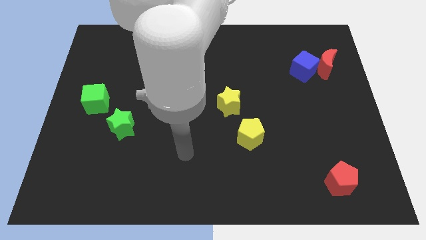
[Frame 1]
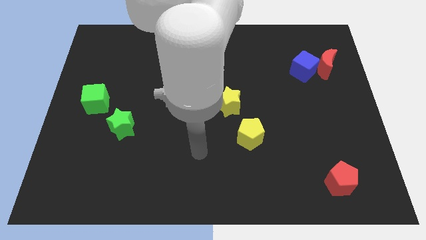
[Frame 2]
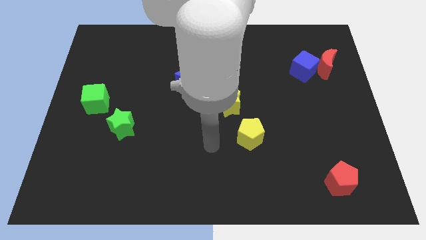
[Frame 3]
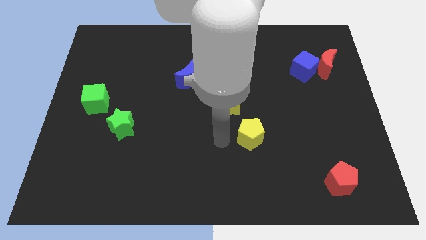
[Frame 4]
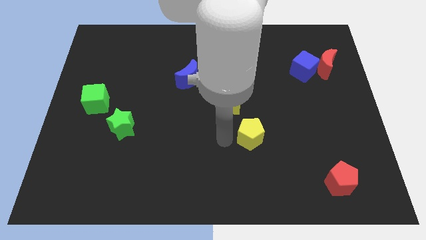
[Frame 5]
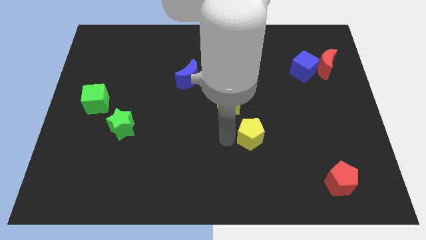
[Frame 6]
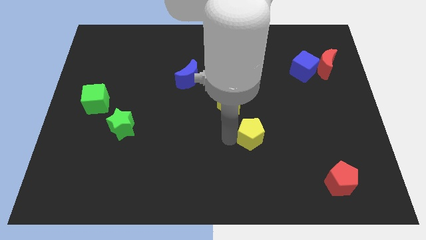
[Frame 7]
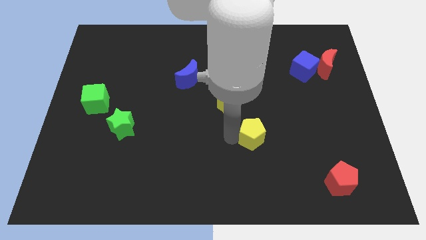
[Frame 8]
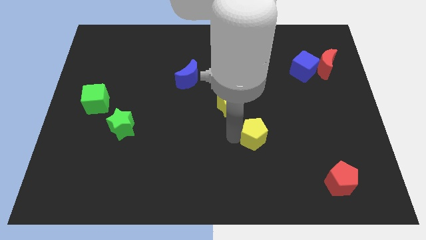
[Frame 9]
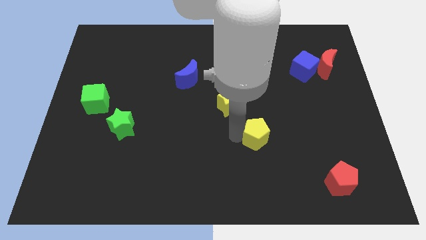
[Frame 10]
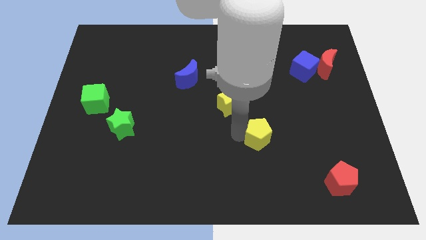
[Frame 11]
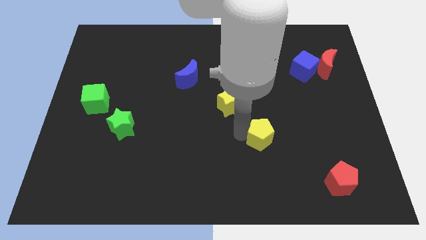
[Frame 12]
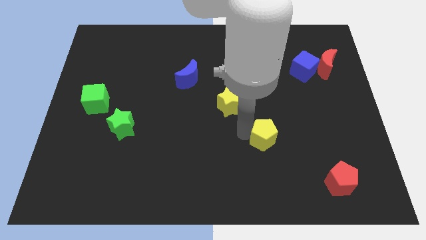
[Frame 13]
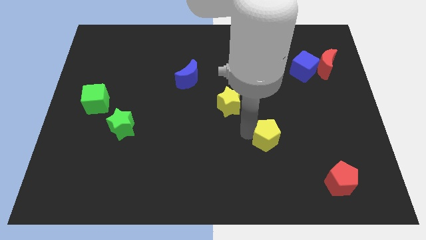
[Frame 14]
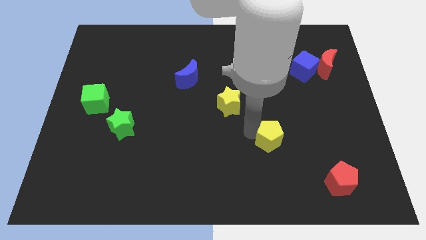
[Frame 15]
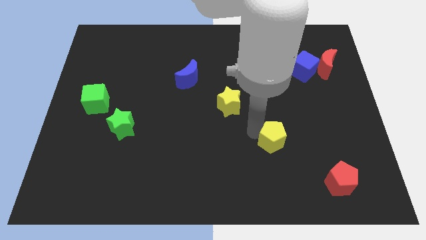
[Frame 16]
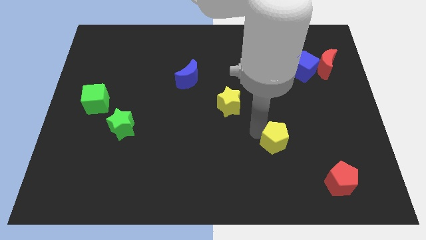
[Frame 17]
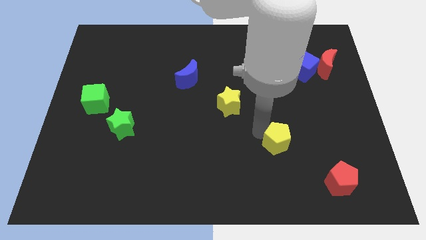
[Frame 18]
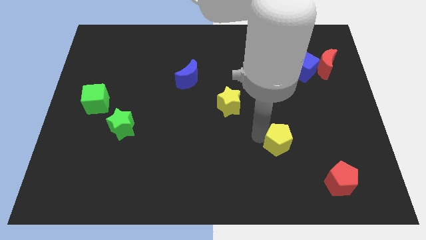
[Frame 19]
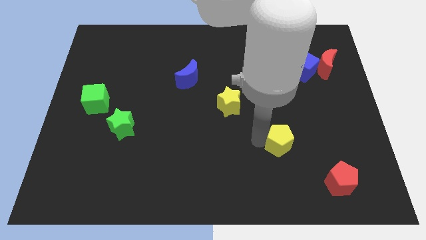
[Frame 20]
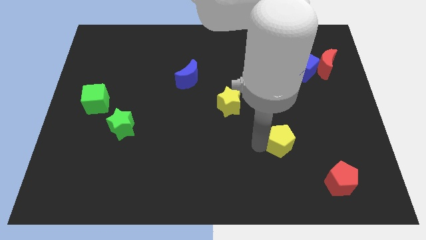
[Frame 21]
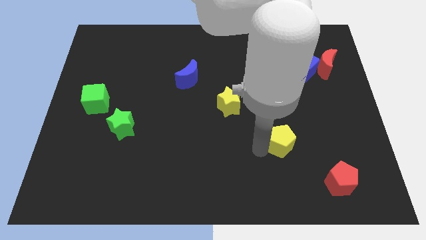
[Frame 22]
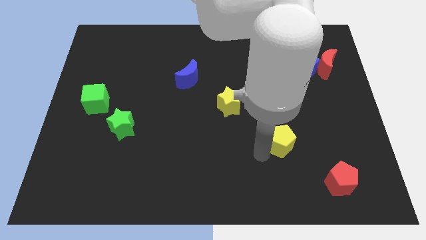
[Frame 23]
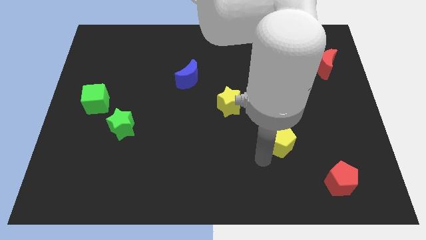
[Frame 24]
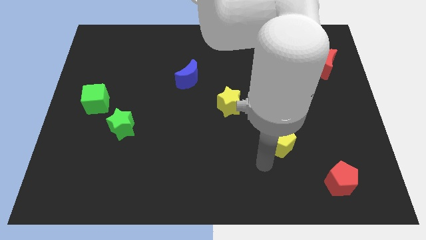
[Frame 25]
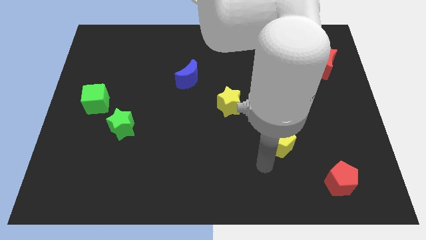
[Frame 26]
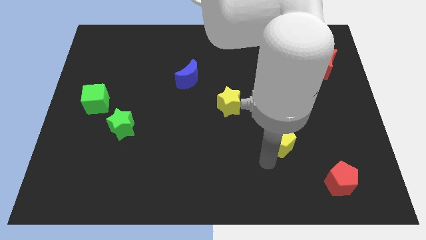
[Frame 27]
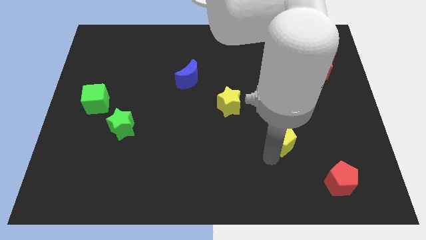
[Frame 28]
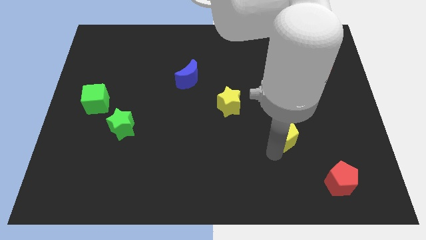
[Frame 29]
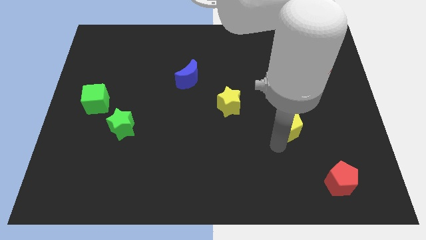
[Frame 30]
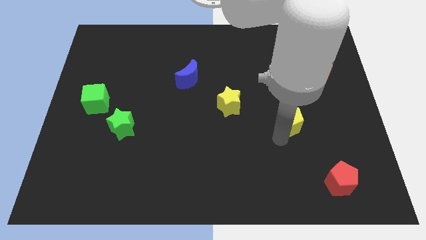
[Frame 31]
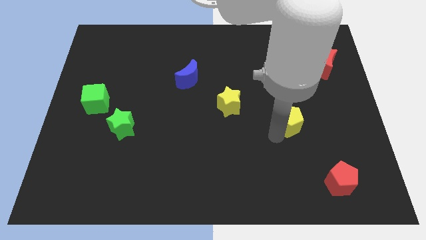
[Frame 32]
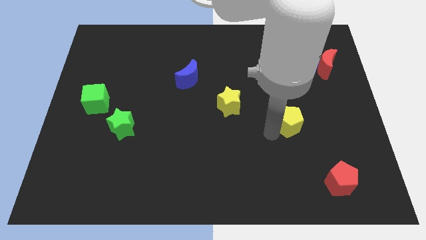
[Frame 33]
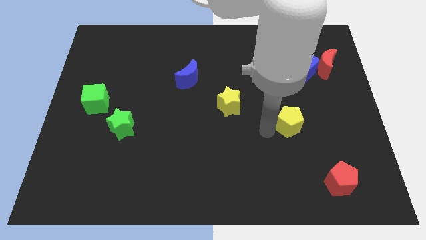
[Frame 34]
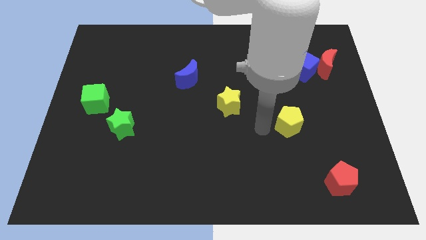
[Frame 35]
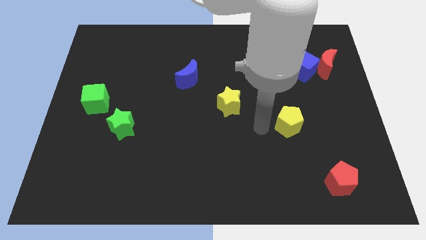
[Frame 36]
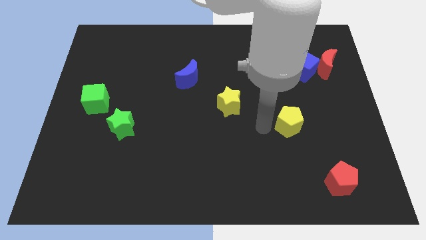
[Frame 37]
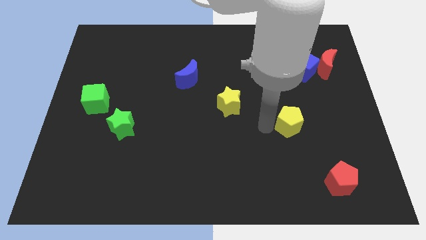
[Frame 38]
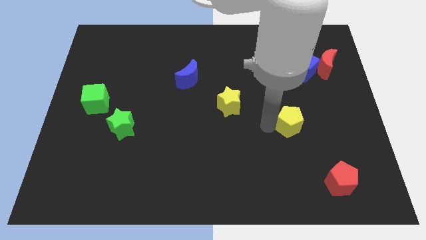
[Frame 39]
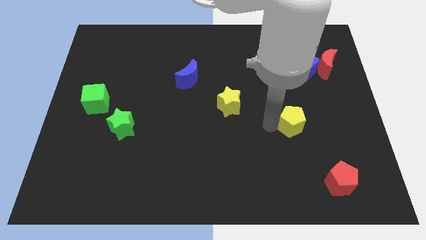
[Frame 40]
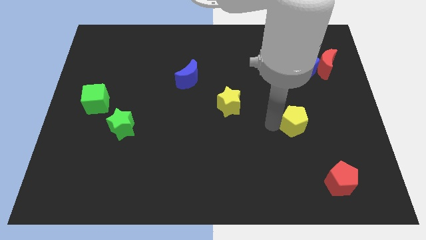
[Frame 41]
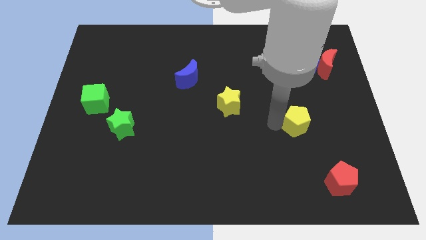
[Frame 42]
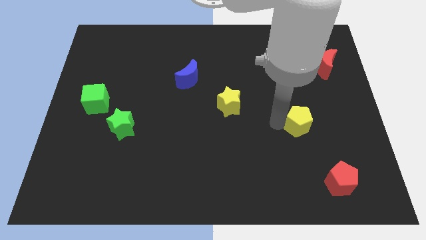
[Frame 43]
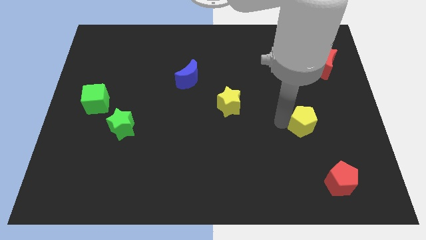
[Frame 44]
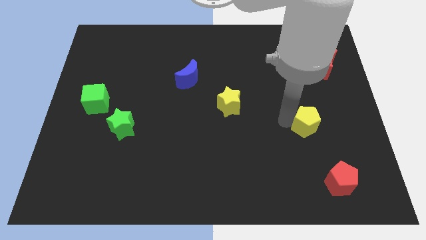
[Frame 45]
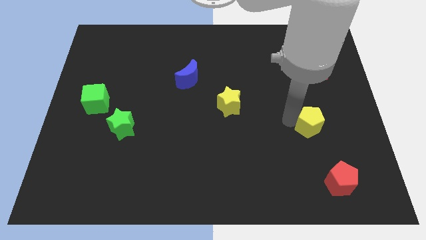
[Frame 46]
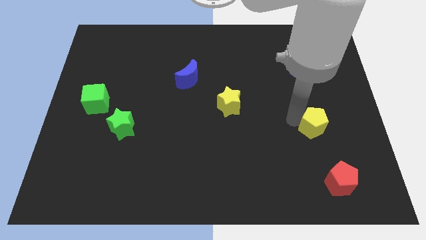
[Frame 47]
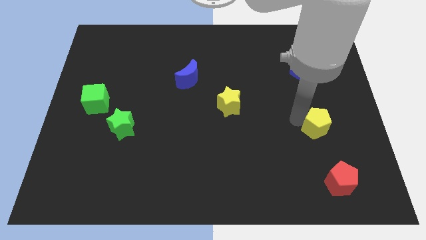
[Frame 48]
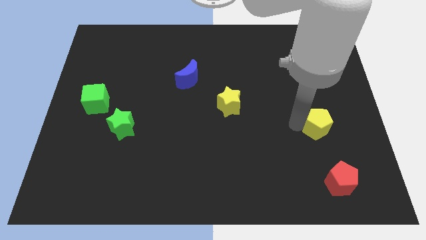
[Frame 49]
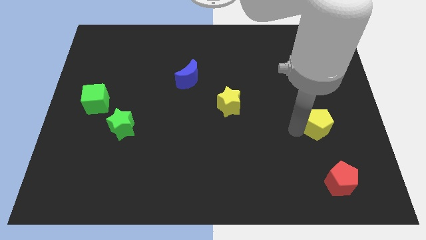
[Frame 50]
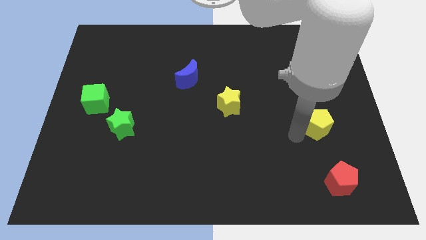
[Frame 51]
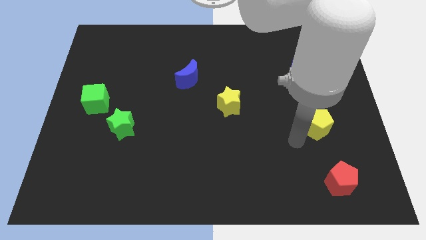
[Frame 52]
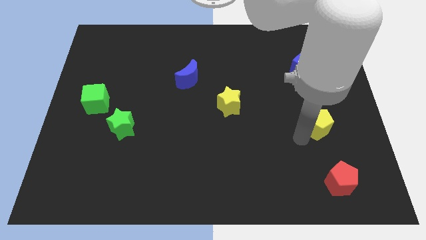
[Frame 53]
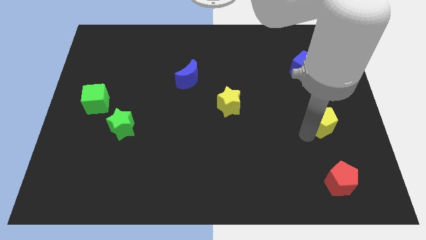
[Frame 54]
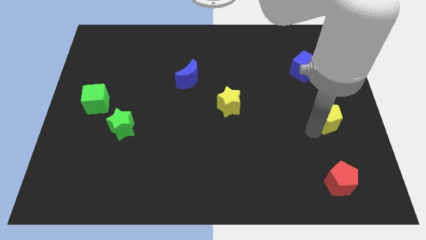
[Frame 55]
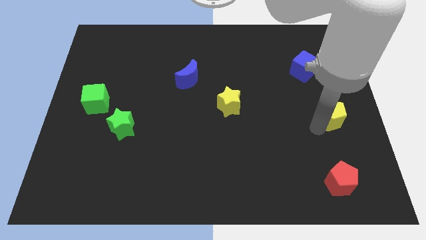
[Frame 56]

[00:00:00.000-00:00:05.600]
slide the yellow pentagon to the center right
